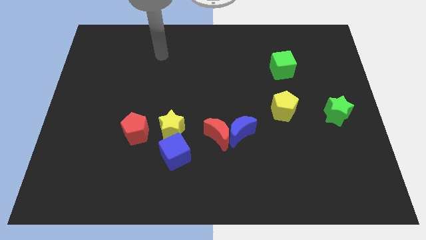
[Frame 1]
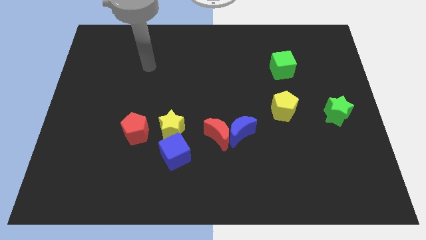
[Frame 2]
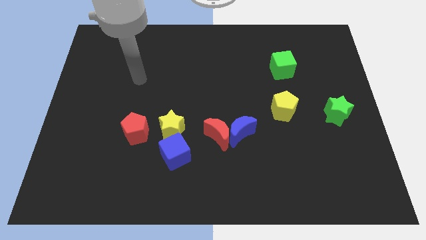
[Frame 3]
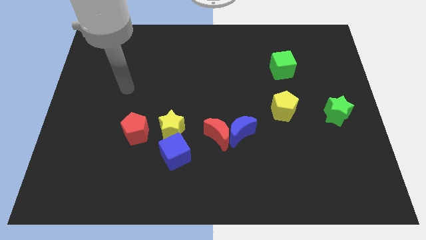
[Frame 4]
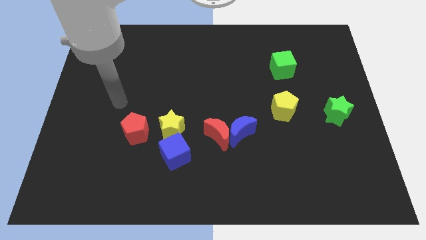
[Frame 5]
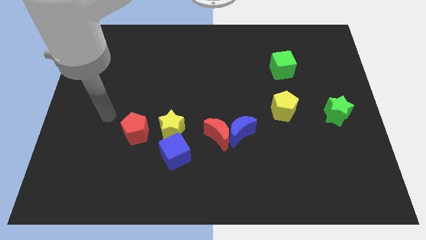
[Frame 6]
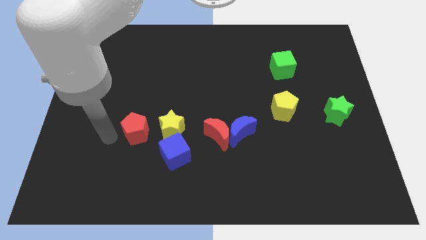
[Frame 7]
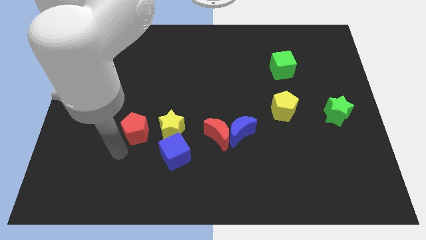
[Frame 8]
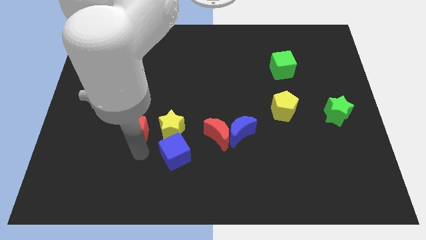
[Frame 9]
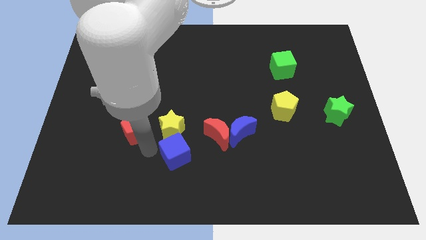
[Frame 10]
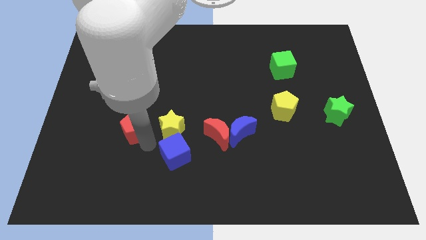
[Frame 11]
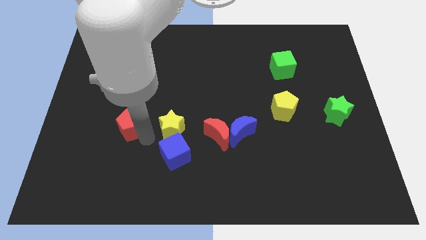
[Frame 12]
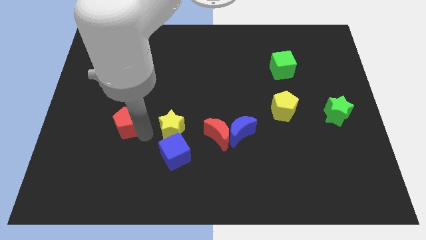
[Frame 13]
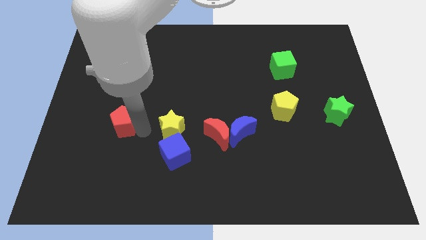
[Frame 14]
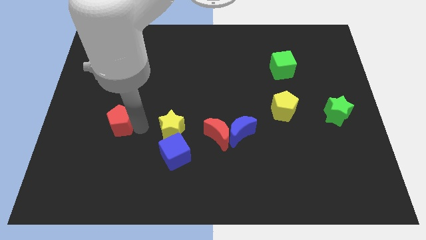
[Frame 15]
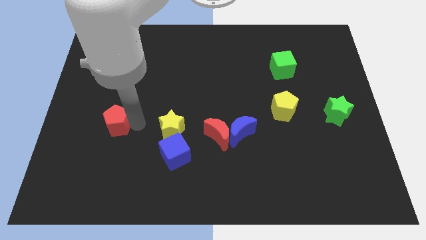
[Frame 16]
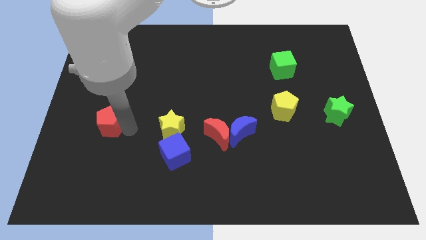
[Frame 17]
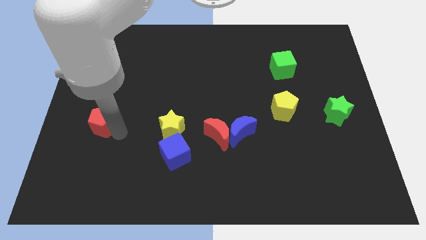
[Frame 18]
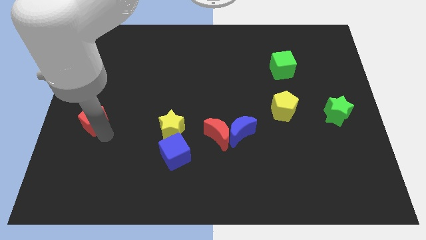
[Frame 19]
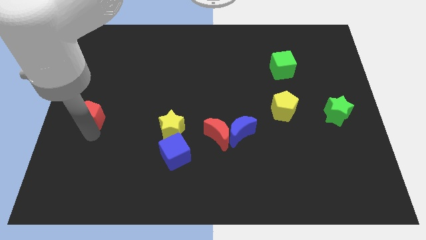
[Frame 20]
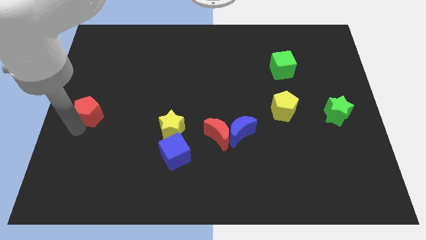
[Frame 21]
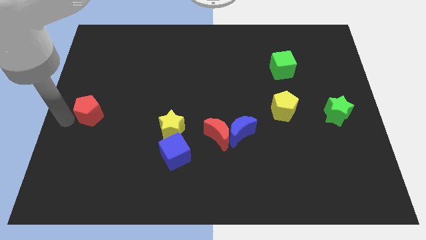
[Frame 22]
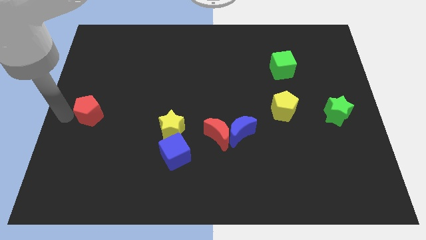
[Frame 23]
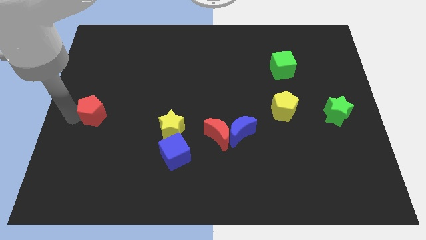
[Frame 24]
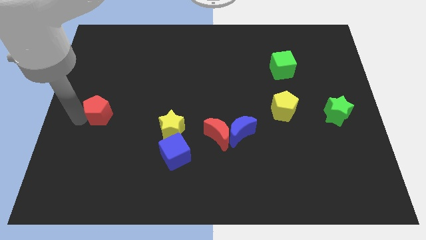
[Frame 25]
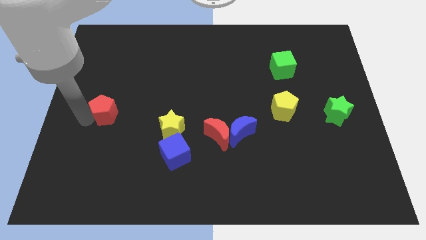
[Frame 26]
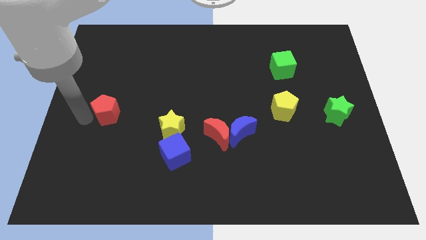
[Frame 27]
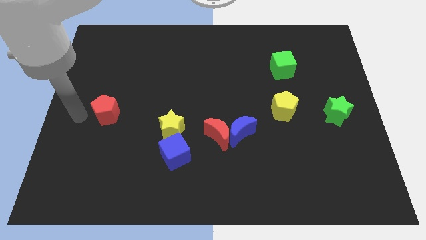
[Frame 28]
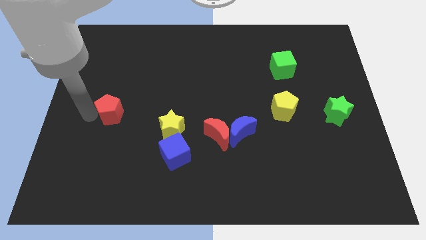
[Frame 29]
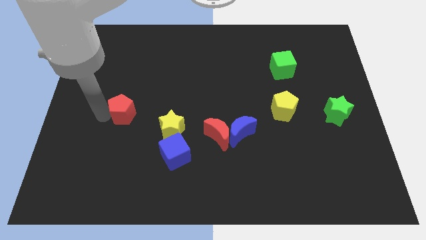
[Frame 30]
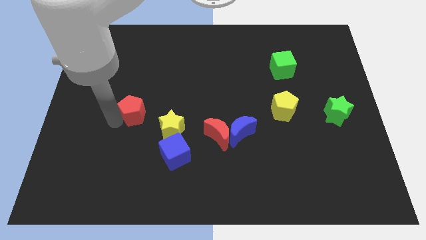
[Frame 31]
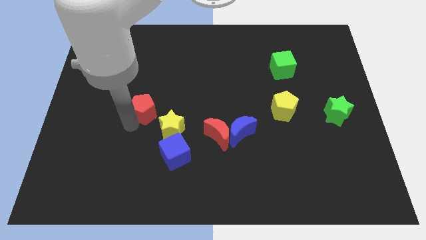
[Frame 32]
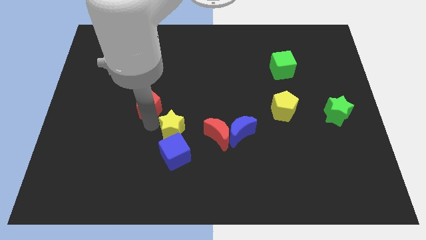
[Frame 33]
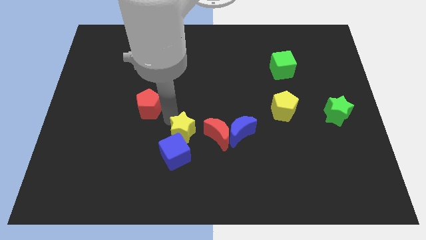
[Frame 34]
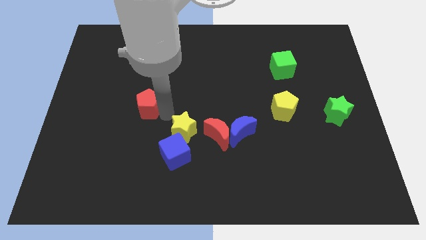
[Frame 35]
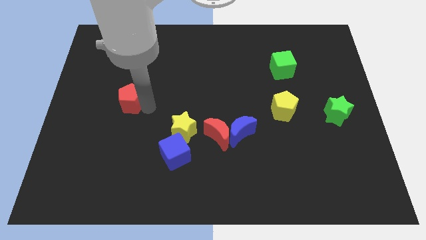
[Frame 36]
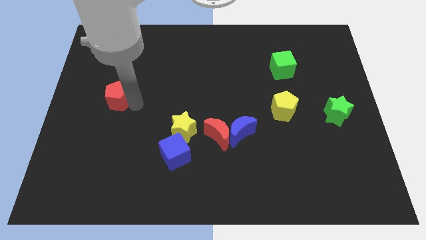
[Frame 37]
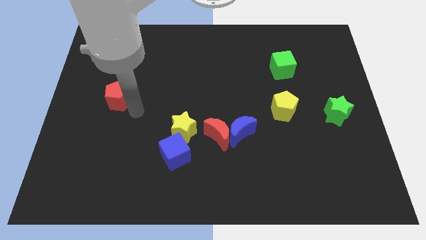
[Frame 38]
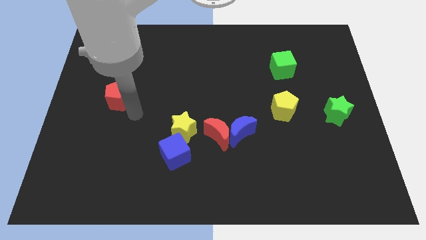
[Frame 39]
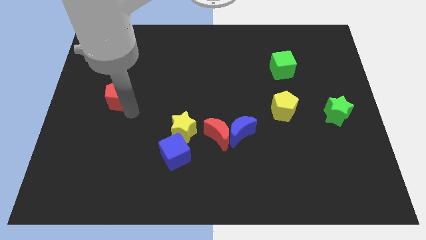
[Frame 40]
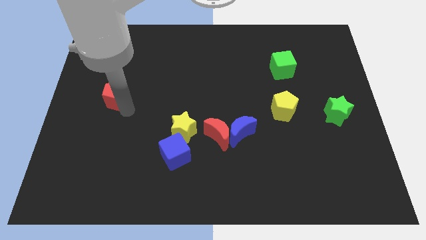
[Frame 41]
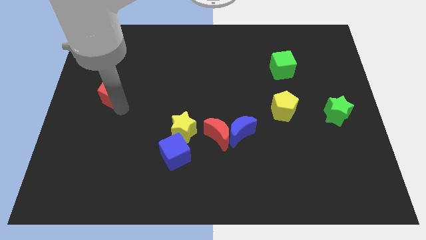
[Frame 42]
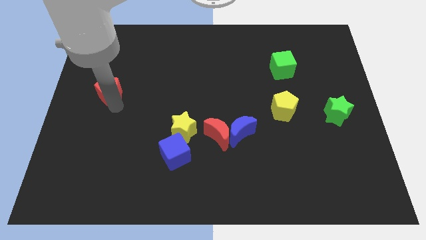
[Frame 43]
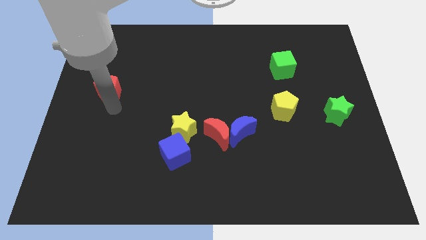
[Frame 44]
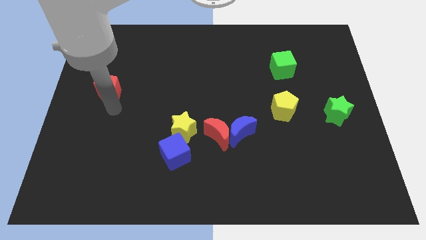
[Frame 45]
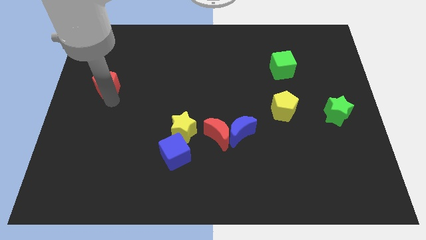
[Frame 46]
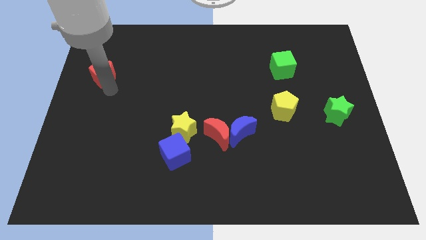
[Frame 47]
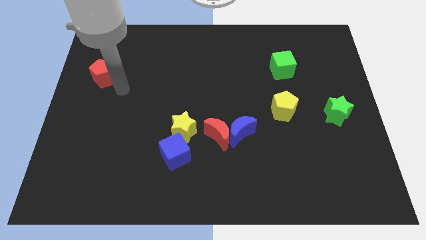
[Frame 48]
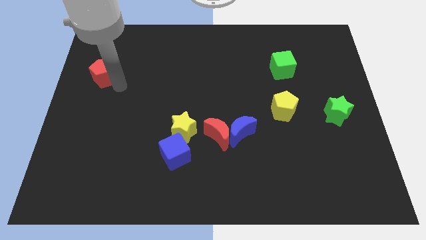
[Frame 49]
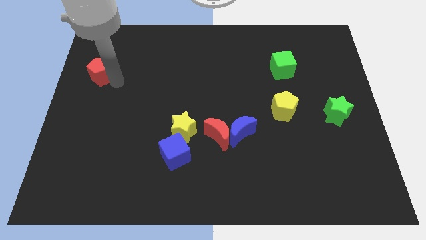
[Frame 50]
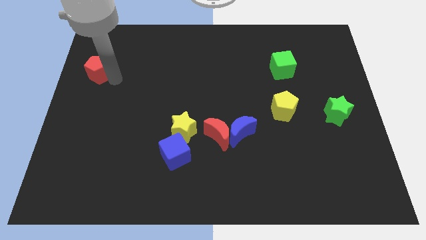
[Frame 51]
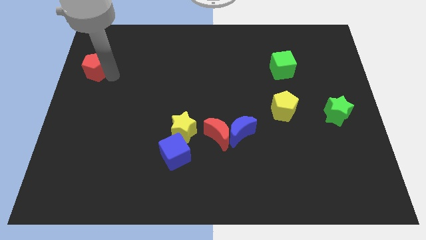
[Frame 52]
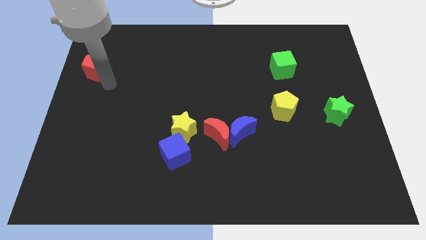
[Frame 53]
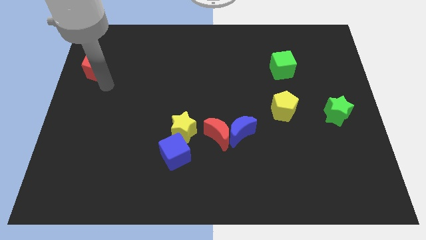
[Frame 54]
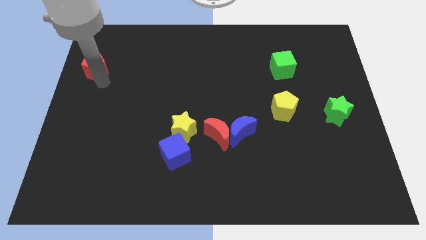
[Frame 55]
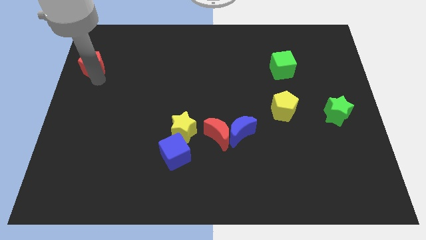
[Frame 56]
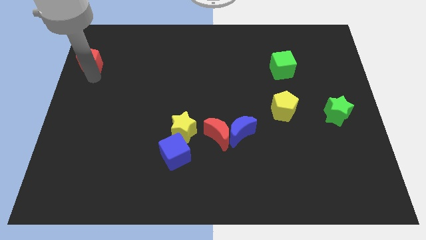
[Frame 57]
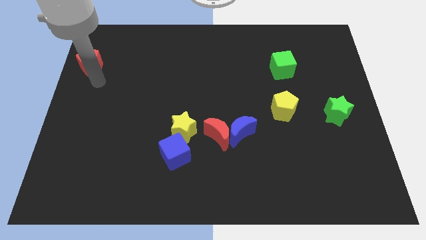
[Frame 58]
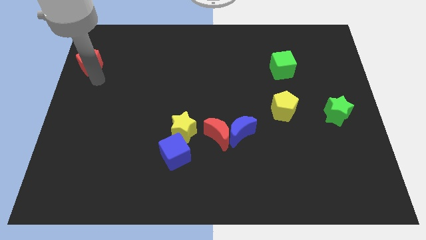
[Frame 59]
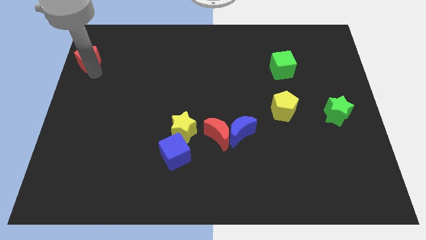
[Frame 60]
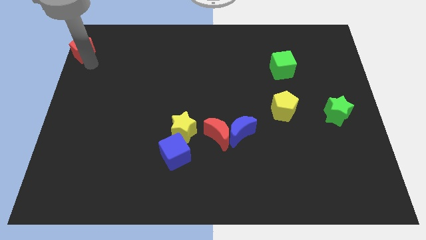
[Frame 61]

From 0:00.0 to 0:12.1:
slide the red pentagon to the upper left corner
